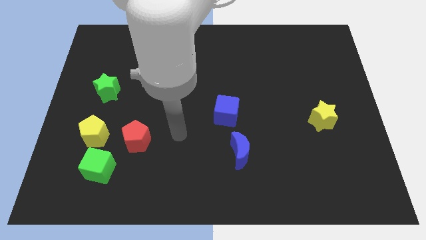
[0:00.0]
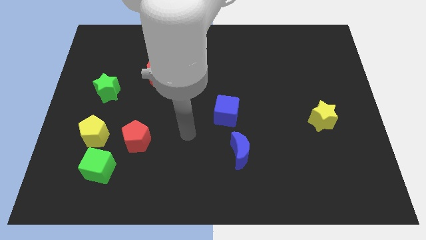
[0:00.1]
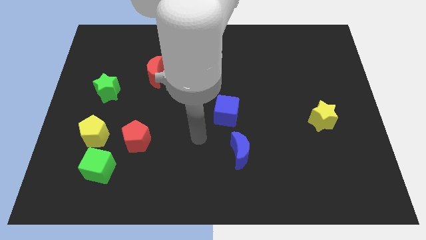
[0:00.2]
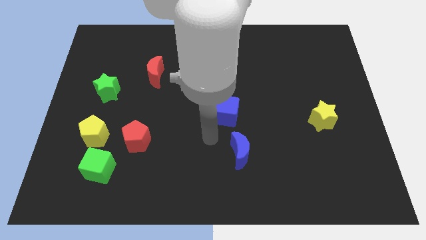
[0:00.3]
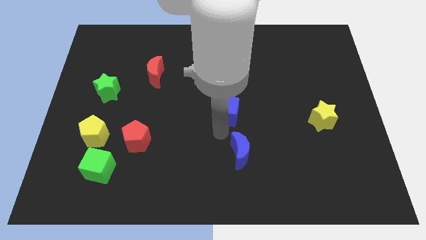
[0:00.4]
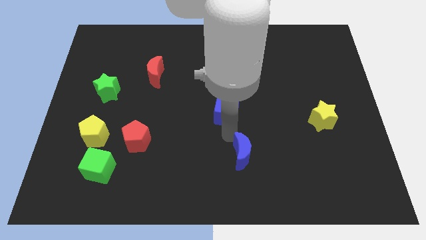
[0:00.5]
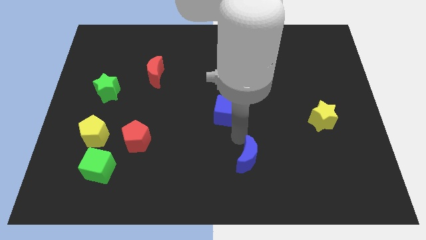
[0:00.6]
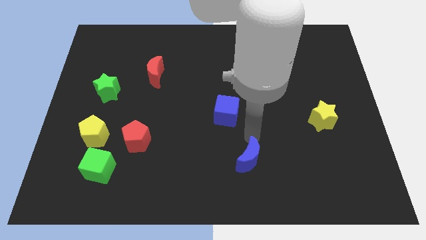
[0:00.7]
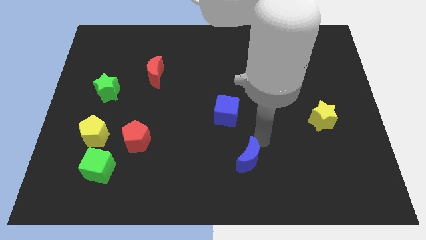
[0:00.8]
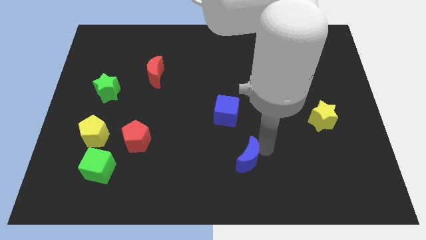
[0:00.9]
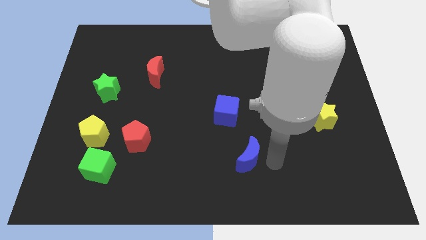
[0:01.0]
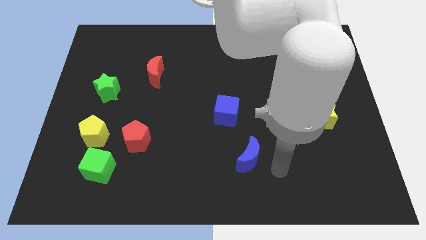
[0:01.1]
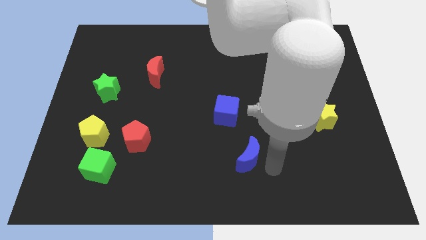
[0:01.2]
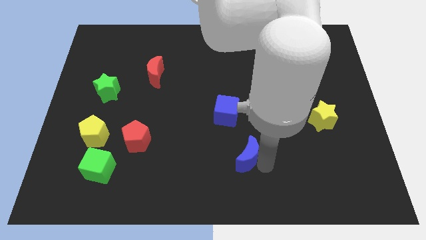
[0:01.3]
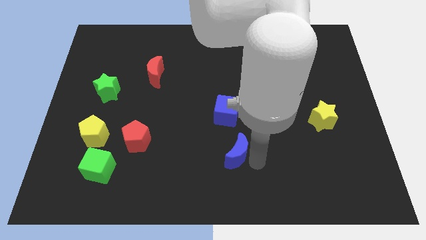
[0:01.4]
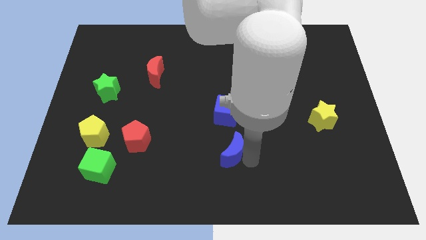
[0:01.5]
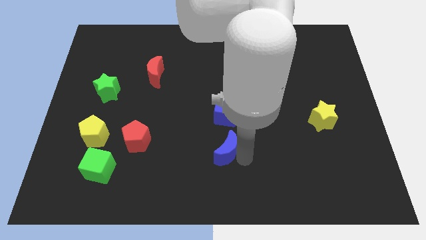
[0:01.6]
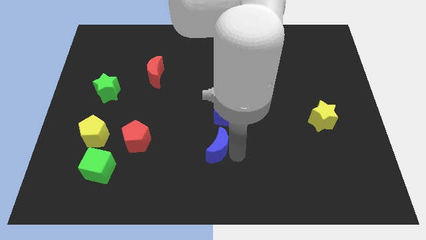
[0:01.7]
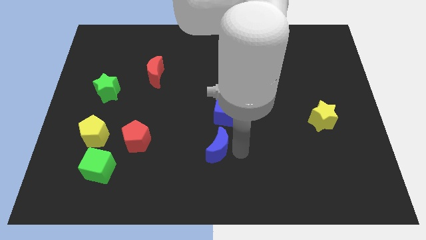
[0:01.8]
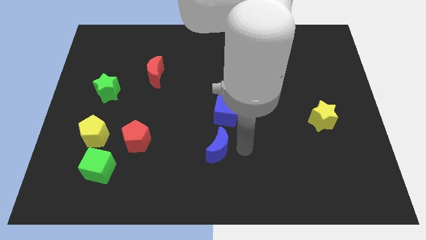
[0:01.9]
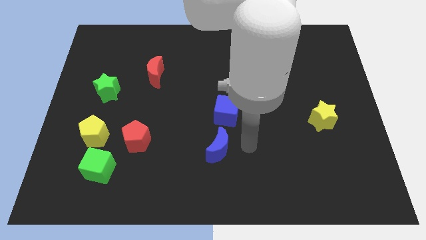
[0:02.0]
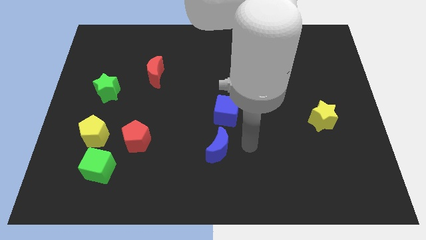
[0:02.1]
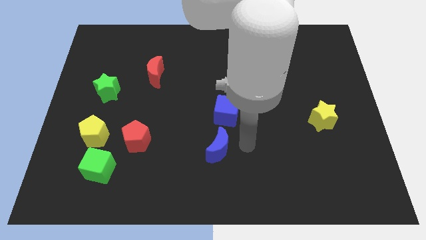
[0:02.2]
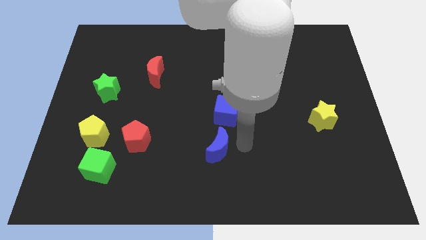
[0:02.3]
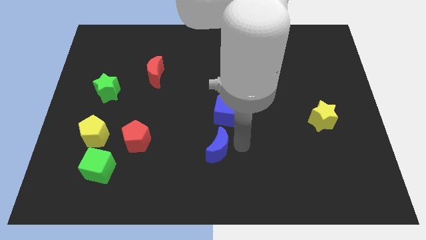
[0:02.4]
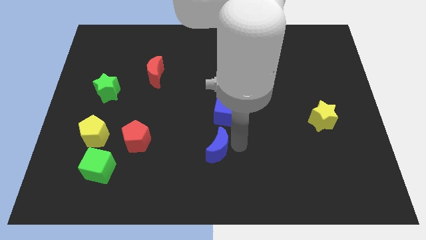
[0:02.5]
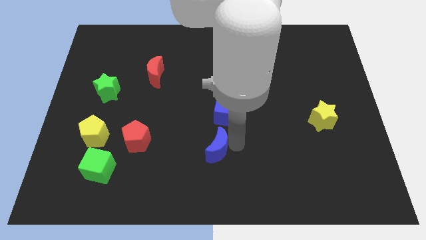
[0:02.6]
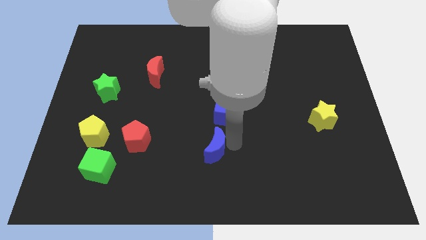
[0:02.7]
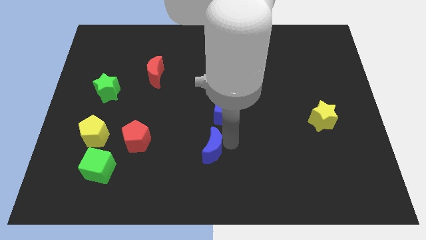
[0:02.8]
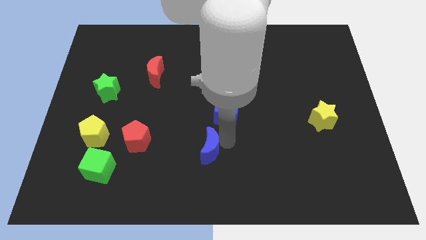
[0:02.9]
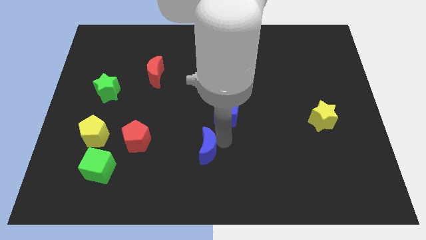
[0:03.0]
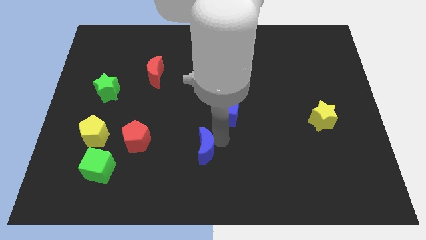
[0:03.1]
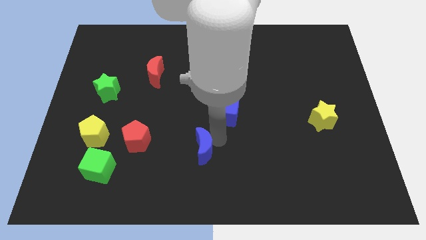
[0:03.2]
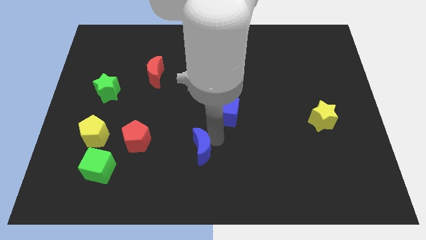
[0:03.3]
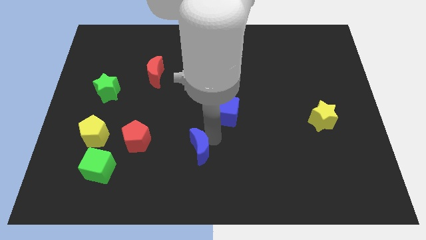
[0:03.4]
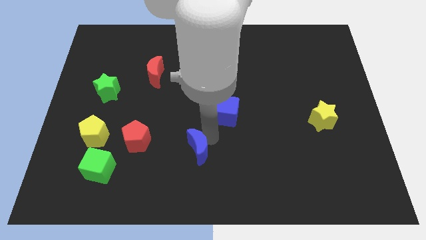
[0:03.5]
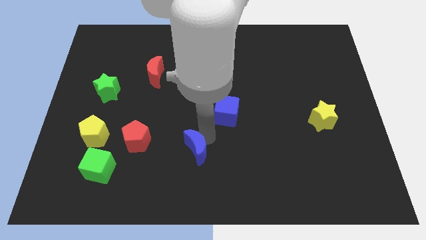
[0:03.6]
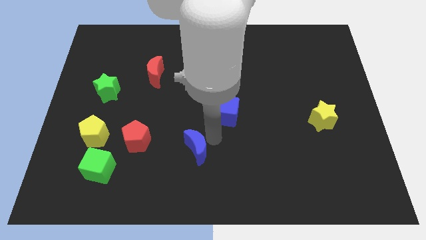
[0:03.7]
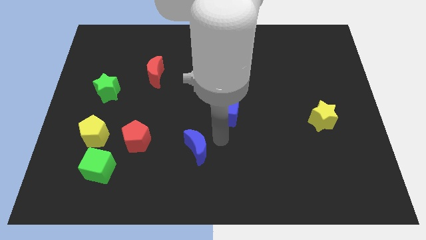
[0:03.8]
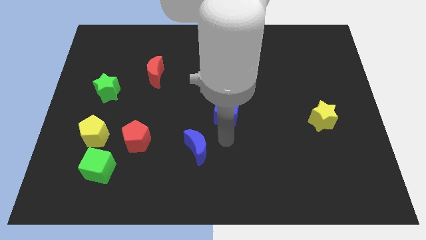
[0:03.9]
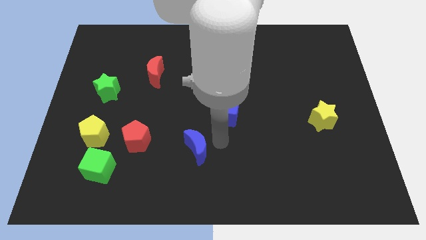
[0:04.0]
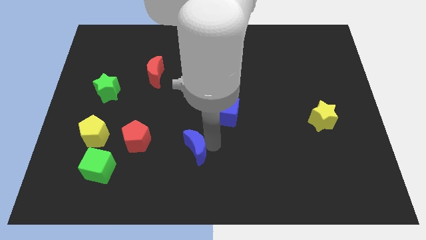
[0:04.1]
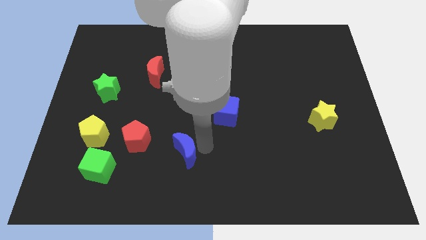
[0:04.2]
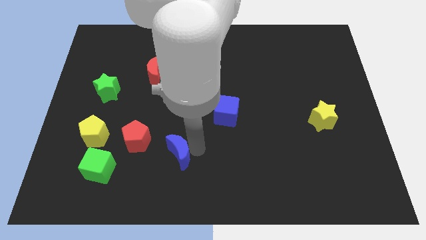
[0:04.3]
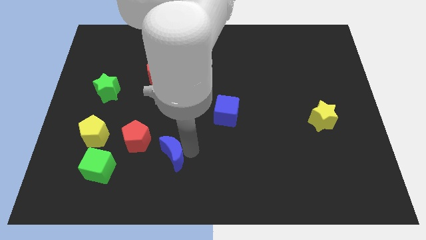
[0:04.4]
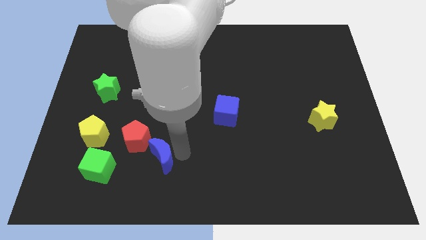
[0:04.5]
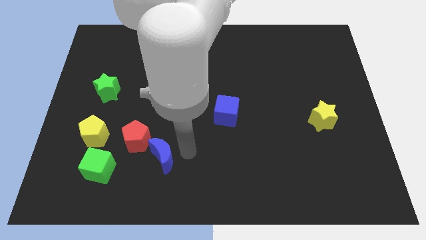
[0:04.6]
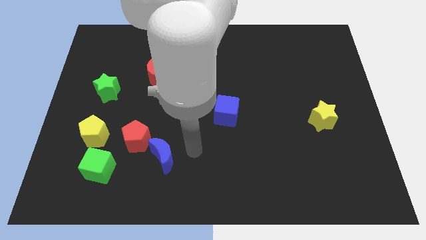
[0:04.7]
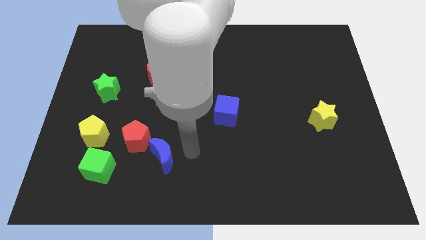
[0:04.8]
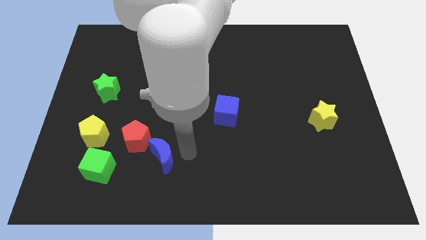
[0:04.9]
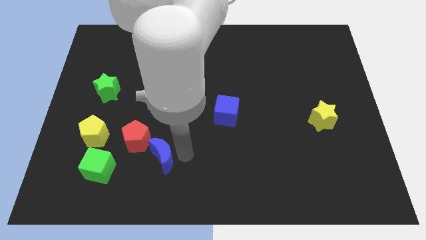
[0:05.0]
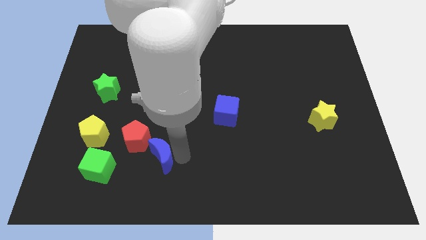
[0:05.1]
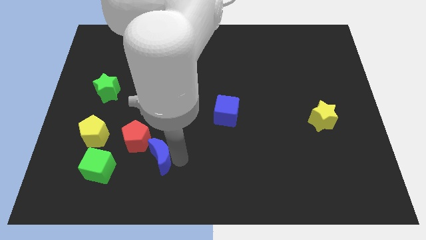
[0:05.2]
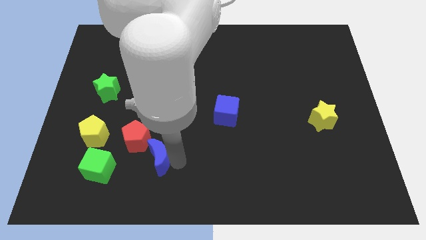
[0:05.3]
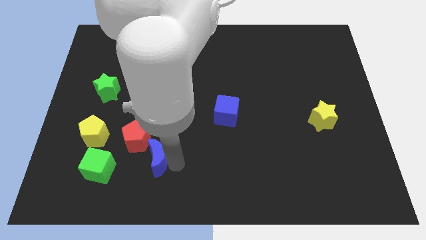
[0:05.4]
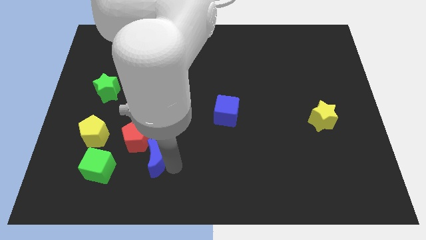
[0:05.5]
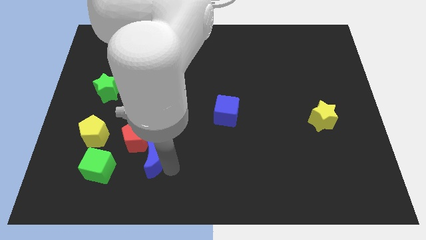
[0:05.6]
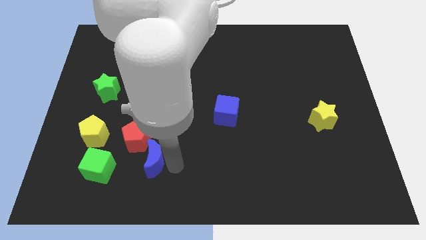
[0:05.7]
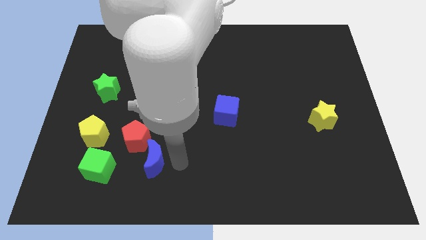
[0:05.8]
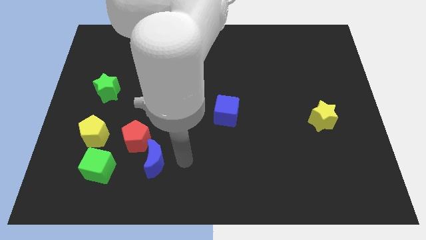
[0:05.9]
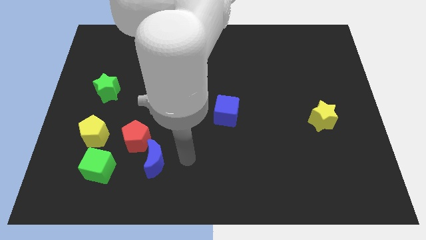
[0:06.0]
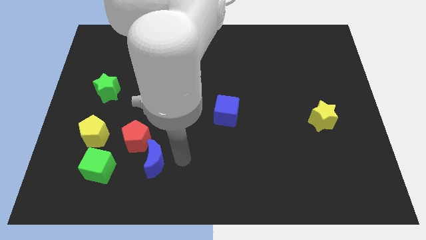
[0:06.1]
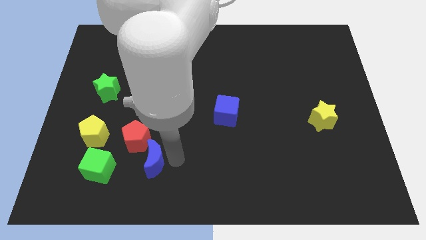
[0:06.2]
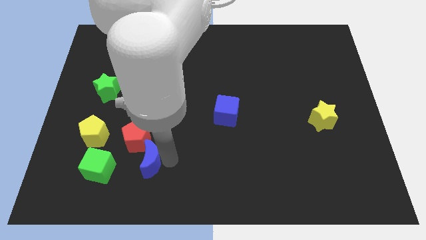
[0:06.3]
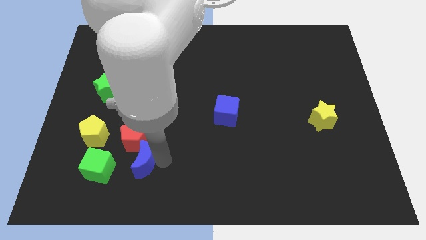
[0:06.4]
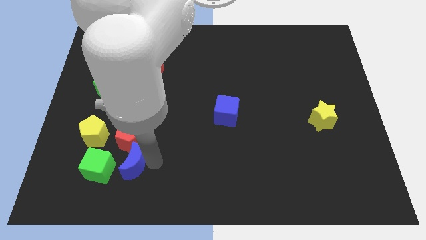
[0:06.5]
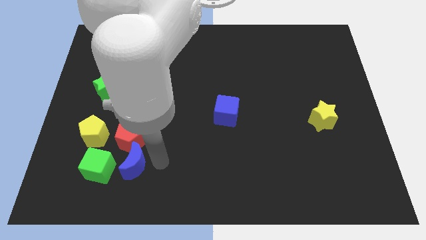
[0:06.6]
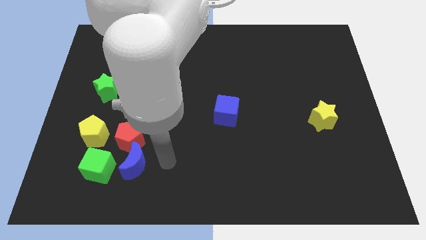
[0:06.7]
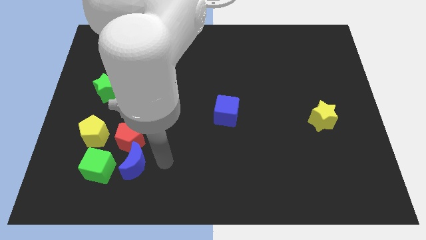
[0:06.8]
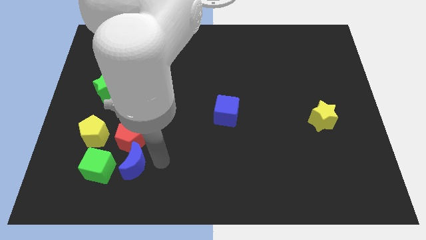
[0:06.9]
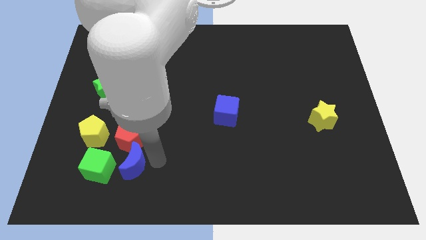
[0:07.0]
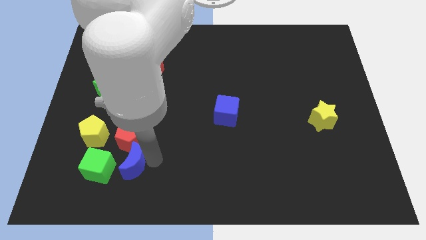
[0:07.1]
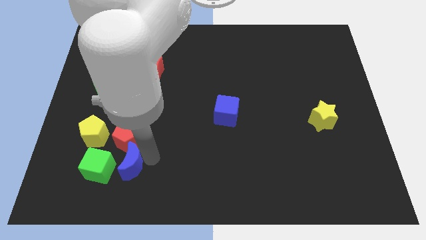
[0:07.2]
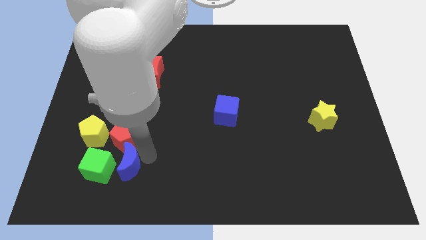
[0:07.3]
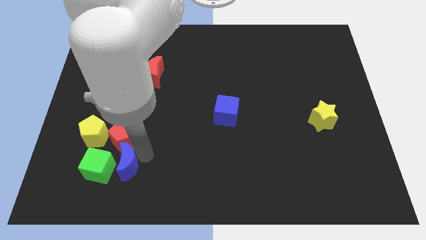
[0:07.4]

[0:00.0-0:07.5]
push the blue moon next to the green cube

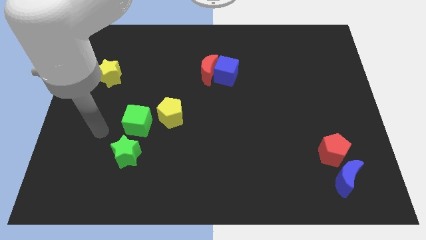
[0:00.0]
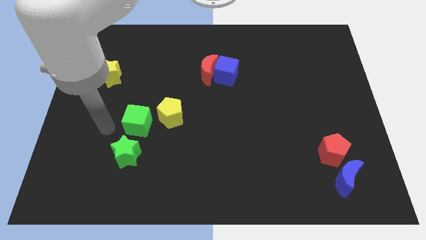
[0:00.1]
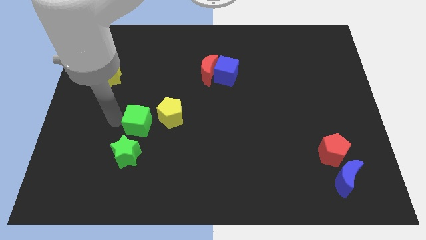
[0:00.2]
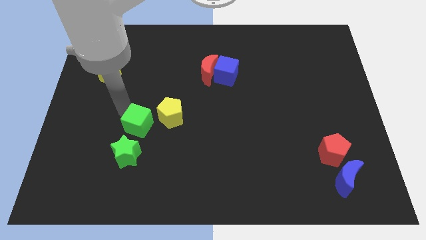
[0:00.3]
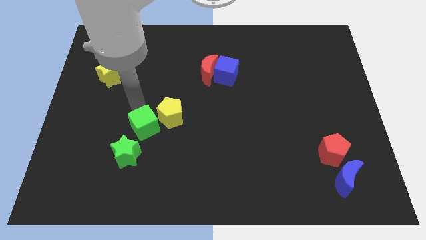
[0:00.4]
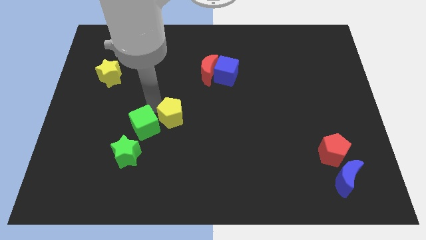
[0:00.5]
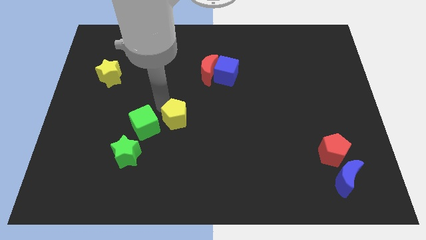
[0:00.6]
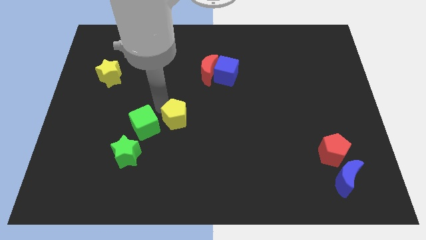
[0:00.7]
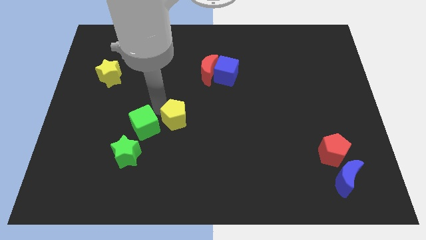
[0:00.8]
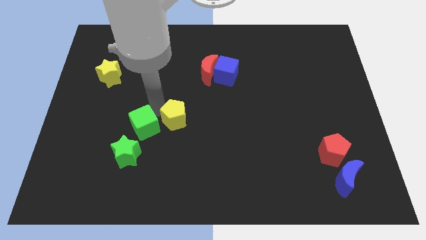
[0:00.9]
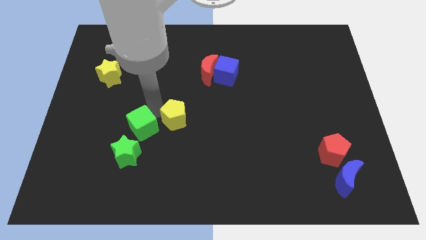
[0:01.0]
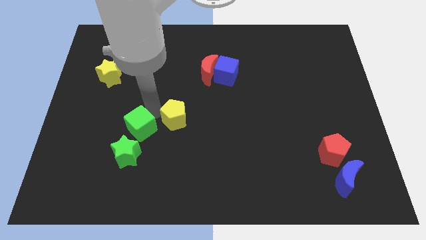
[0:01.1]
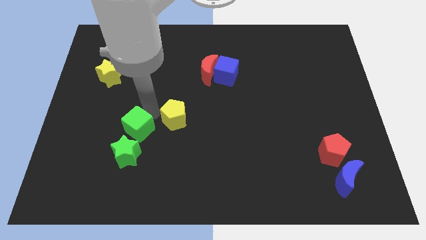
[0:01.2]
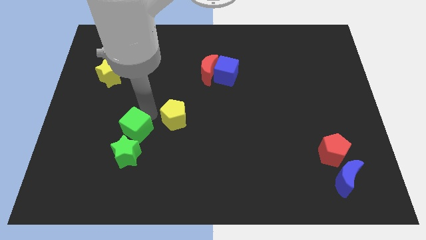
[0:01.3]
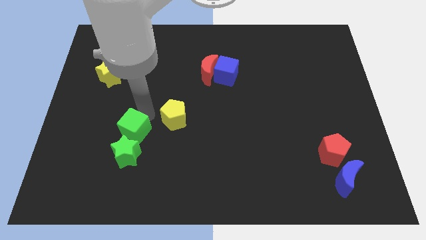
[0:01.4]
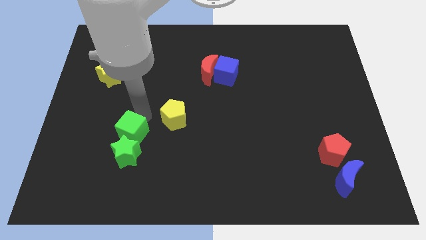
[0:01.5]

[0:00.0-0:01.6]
put the green cube close to the green star
